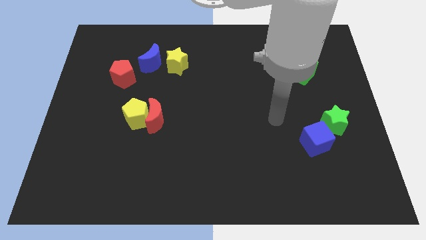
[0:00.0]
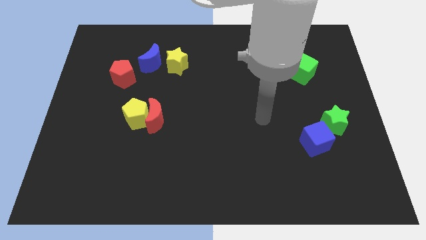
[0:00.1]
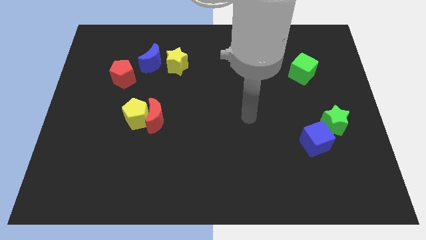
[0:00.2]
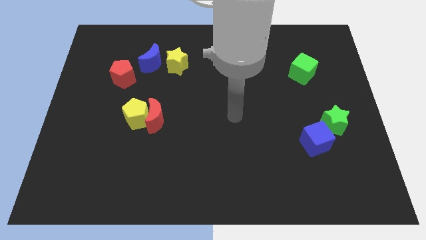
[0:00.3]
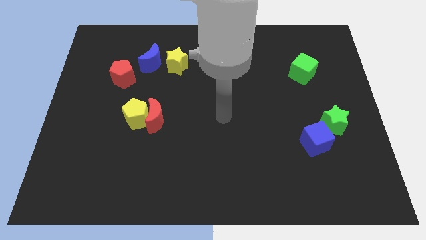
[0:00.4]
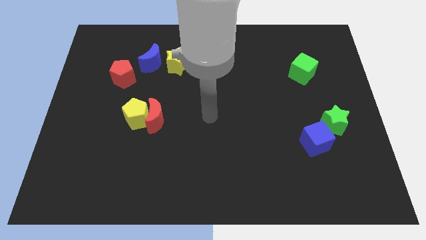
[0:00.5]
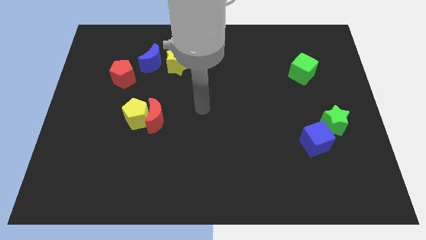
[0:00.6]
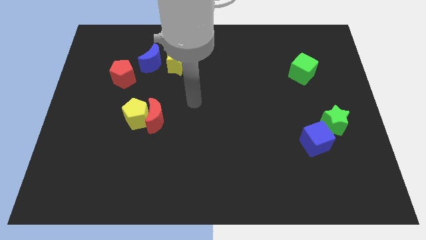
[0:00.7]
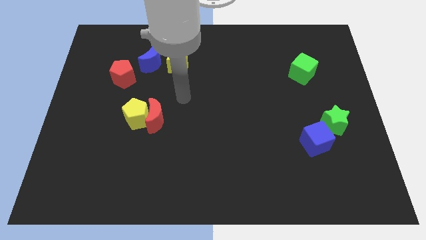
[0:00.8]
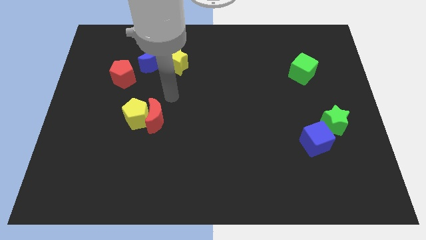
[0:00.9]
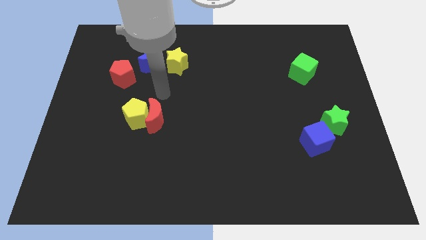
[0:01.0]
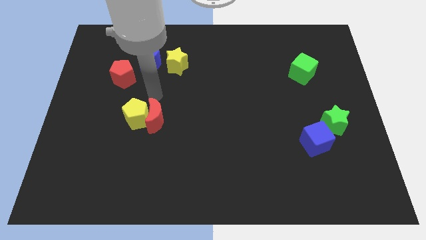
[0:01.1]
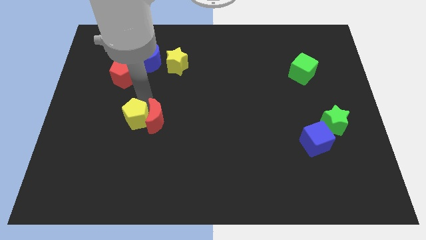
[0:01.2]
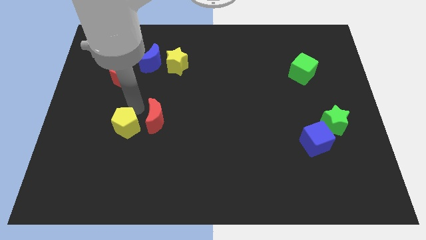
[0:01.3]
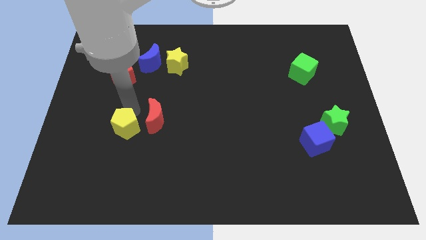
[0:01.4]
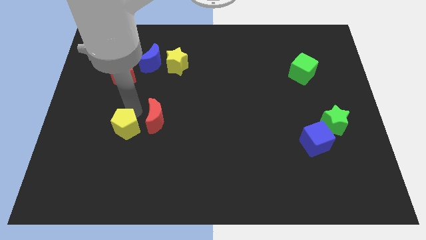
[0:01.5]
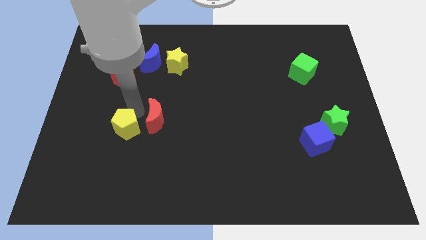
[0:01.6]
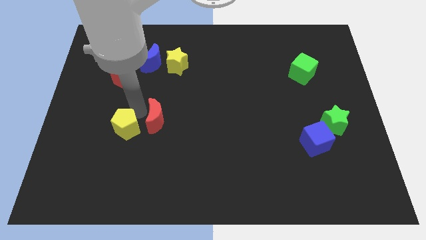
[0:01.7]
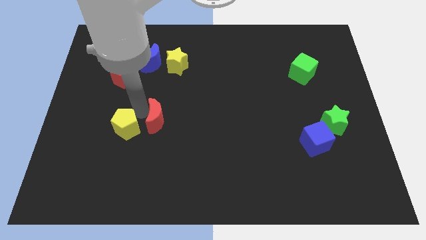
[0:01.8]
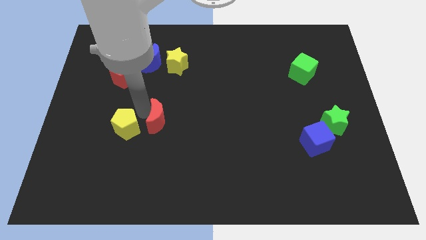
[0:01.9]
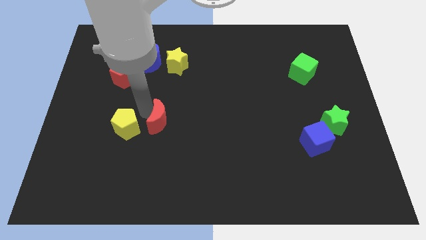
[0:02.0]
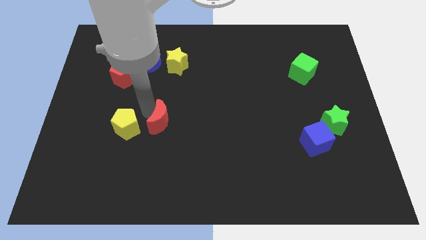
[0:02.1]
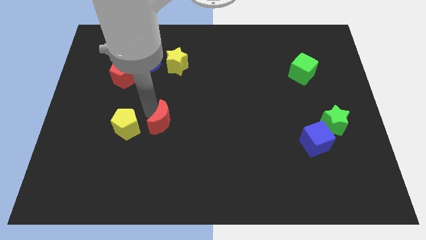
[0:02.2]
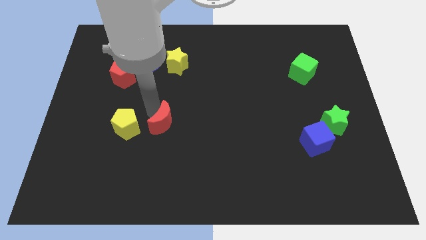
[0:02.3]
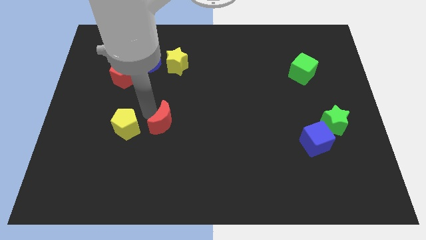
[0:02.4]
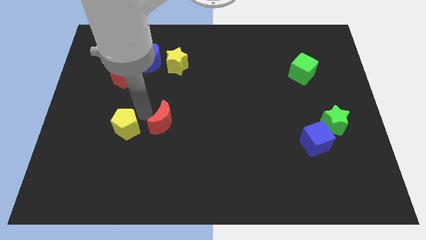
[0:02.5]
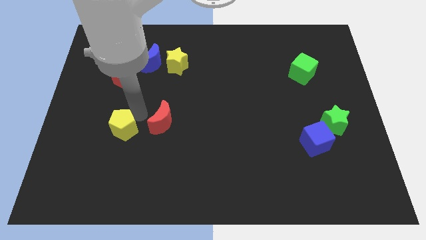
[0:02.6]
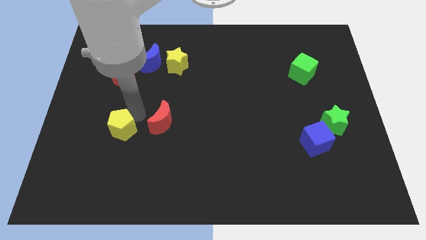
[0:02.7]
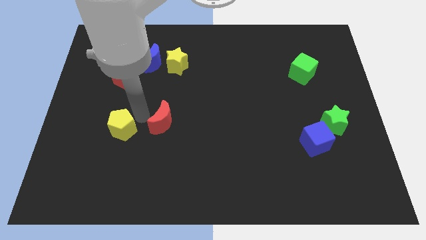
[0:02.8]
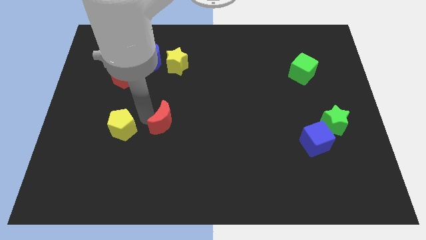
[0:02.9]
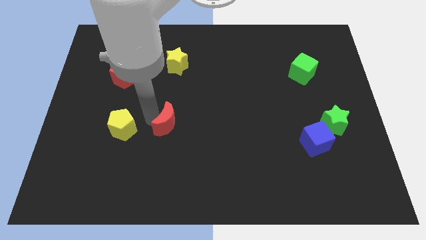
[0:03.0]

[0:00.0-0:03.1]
separate the red moon from the yellow pentagon

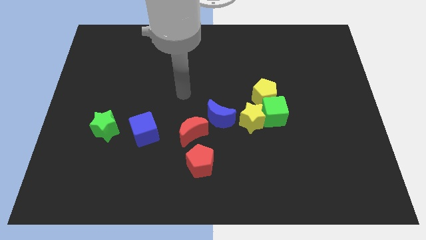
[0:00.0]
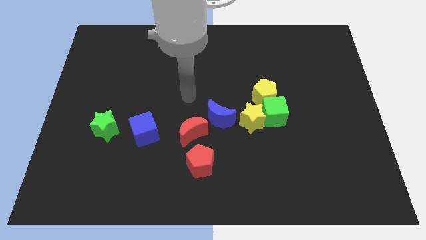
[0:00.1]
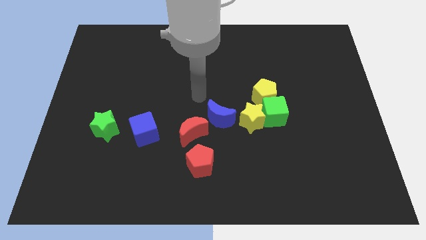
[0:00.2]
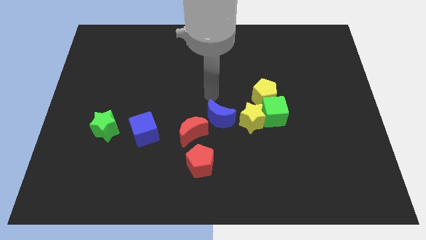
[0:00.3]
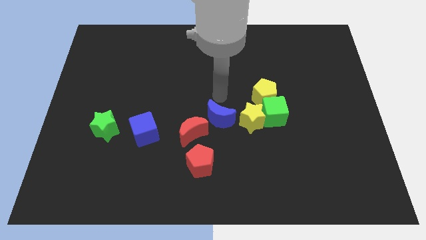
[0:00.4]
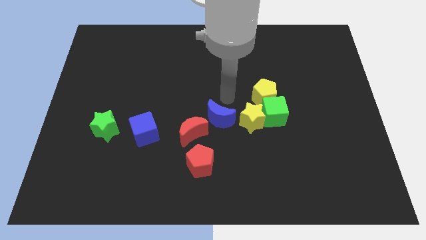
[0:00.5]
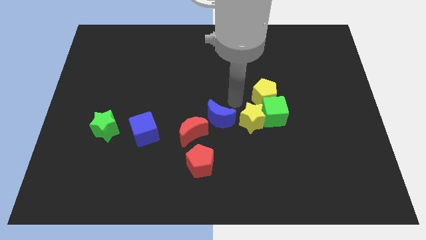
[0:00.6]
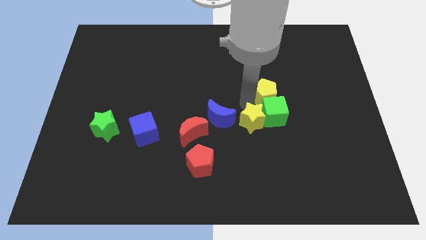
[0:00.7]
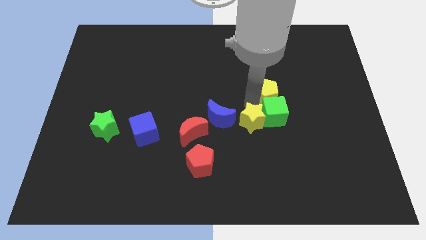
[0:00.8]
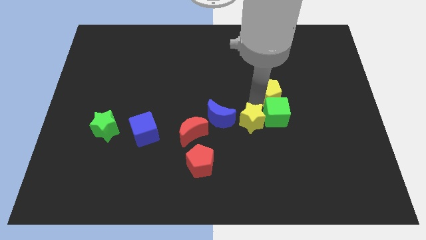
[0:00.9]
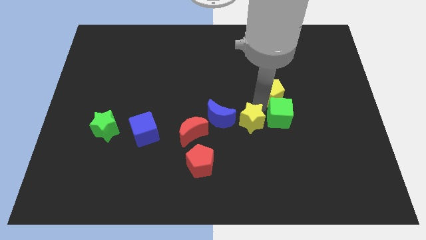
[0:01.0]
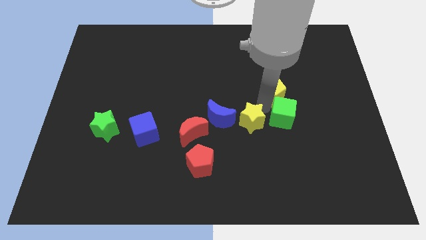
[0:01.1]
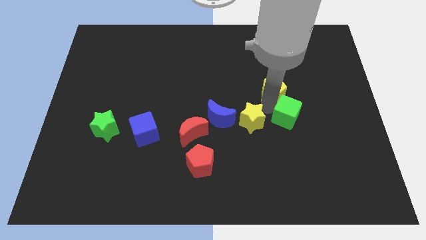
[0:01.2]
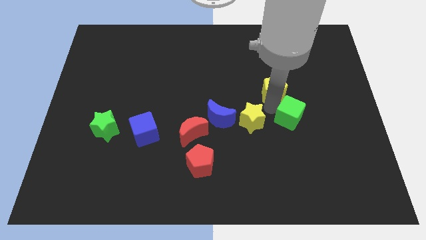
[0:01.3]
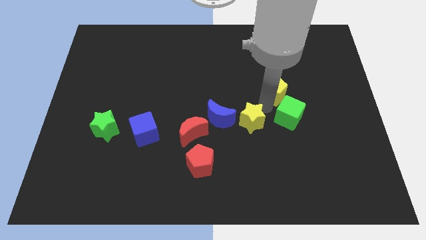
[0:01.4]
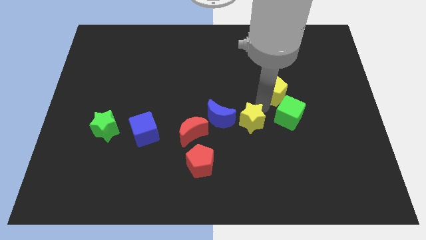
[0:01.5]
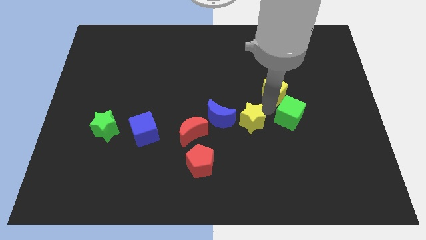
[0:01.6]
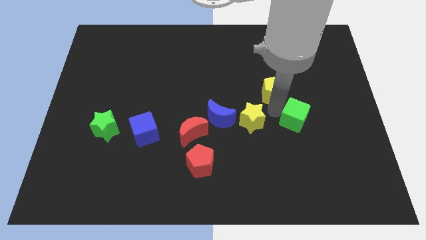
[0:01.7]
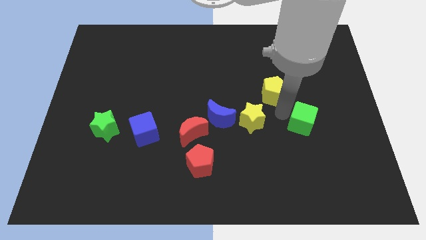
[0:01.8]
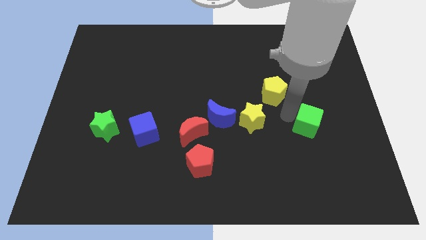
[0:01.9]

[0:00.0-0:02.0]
pull the green cube apart from the yellow star and yellow pentagon

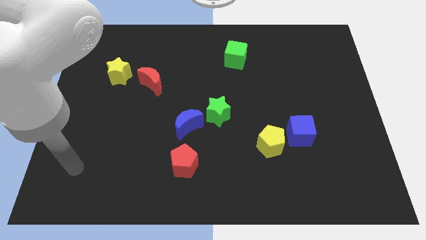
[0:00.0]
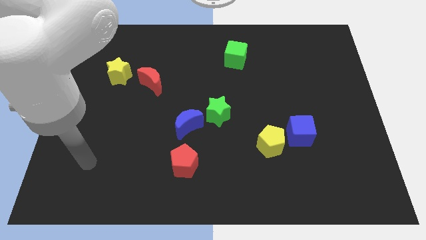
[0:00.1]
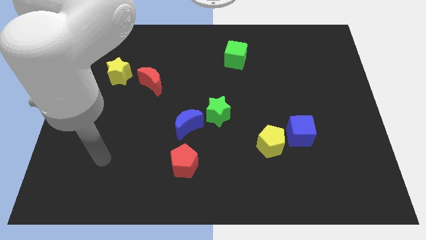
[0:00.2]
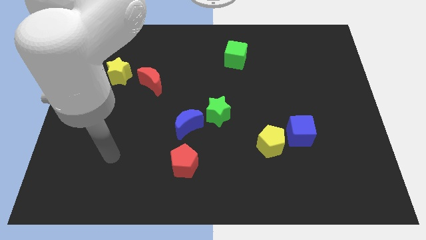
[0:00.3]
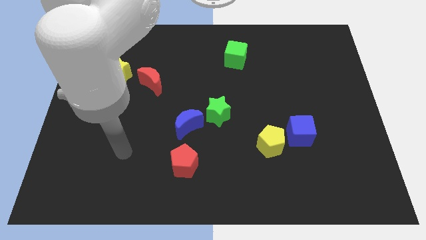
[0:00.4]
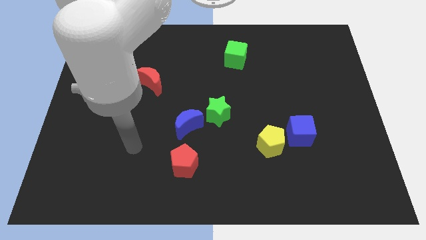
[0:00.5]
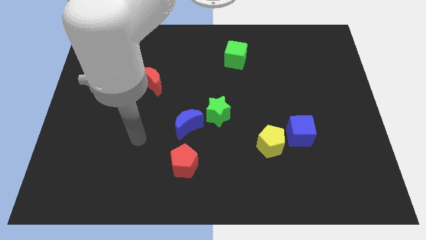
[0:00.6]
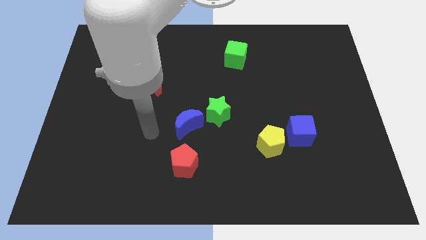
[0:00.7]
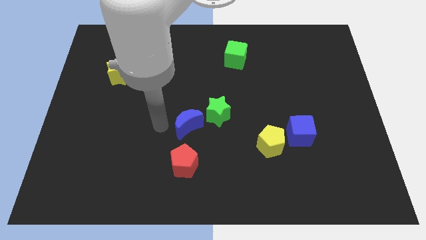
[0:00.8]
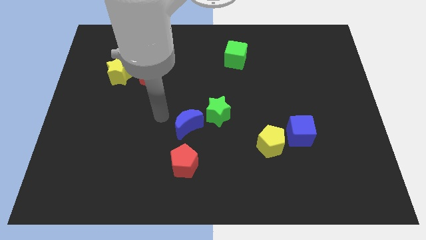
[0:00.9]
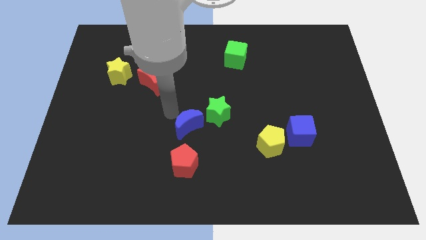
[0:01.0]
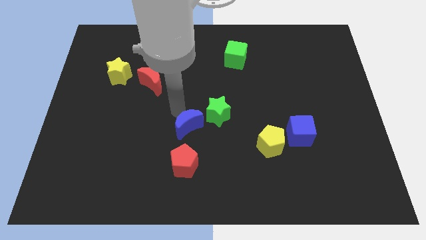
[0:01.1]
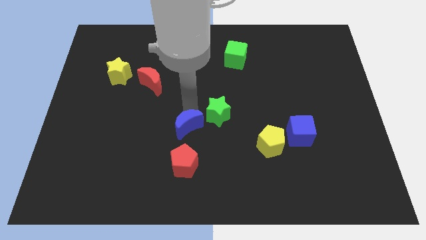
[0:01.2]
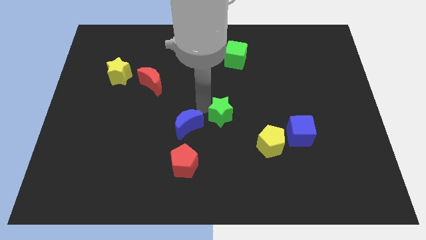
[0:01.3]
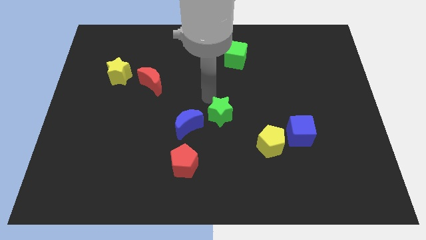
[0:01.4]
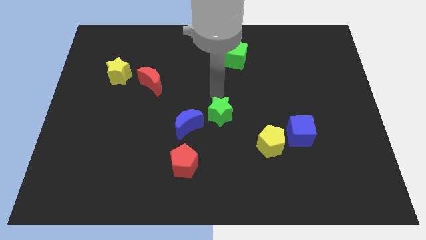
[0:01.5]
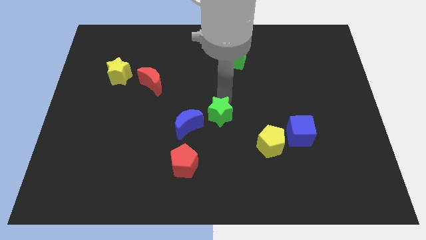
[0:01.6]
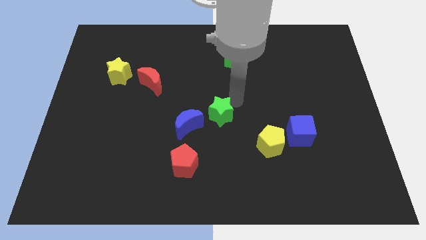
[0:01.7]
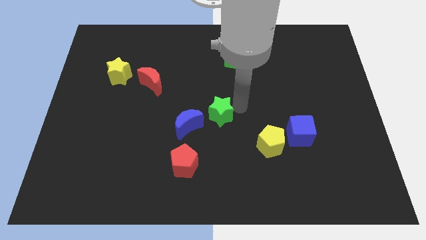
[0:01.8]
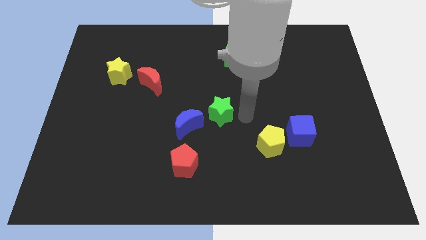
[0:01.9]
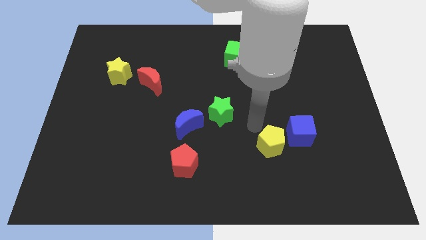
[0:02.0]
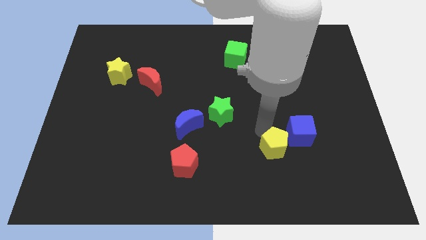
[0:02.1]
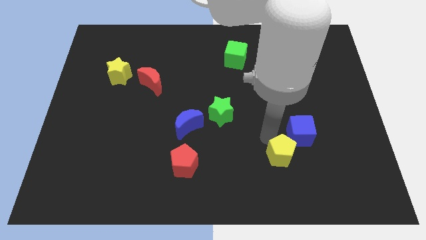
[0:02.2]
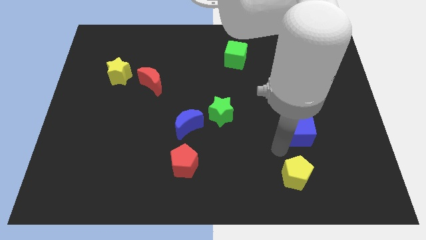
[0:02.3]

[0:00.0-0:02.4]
pull the blue cube apart from the yellow pentagon

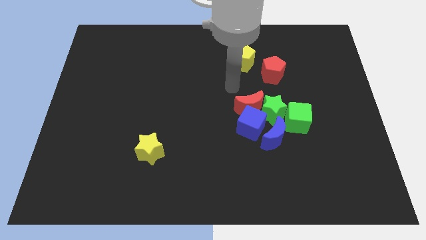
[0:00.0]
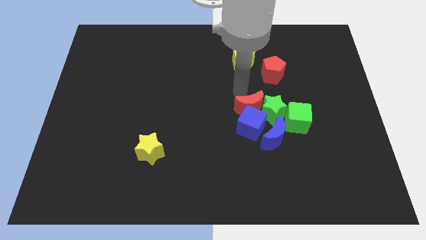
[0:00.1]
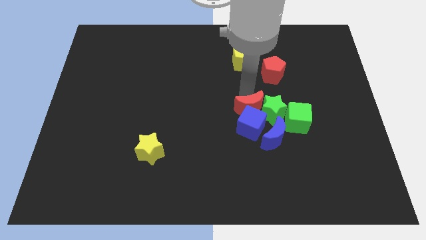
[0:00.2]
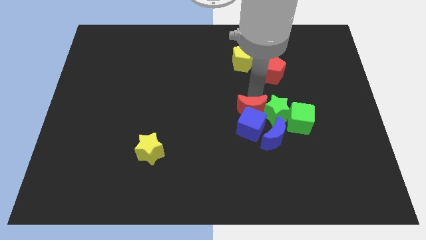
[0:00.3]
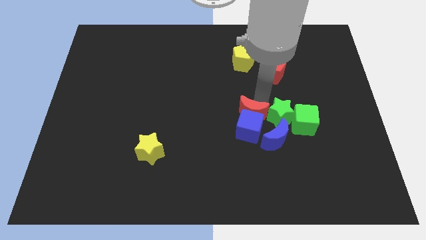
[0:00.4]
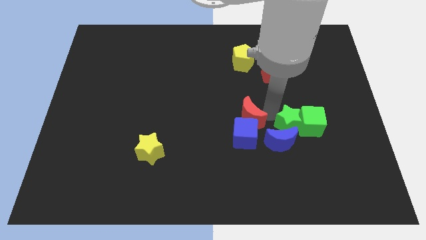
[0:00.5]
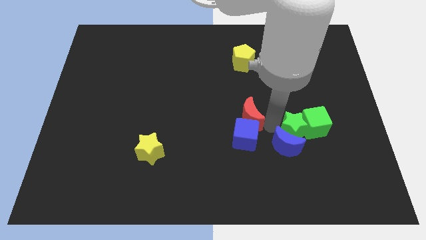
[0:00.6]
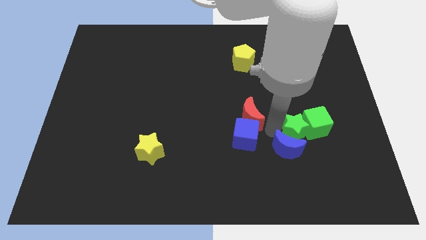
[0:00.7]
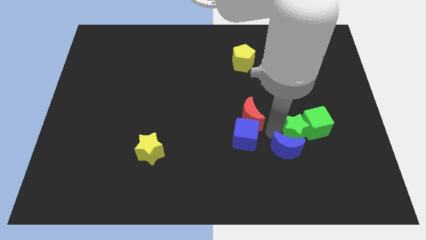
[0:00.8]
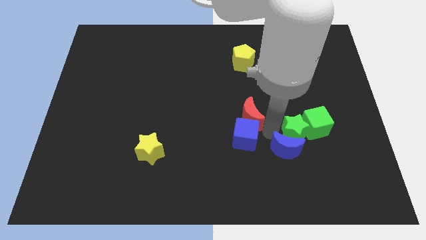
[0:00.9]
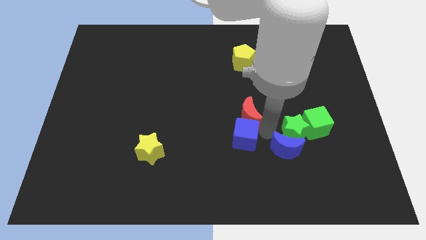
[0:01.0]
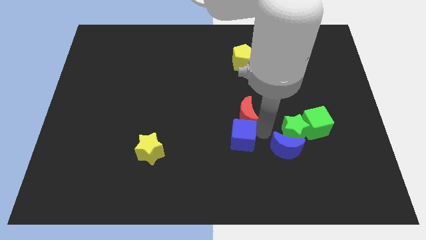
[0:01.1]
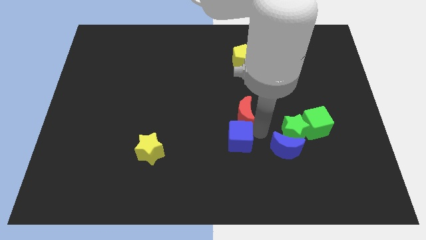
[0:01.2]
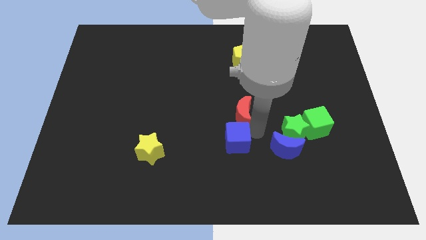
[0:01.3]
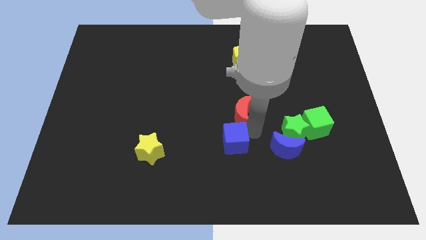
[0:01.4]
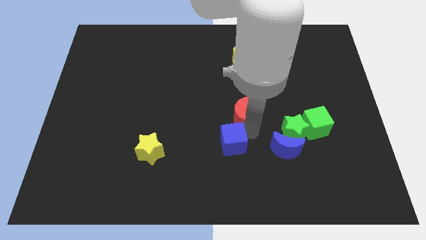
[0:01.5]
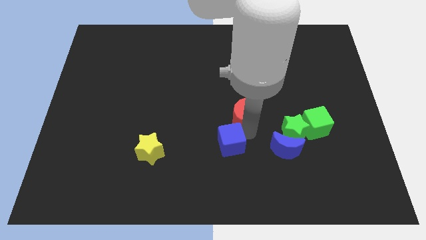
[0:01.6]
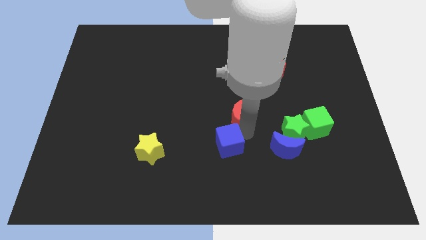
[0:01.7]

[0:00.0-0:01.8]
separate the blue cube from the red moon, blue moon, and green star
